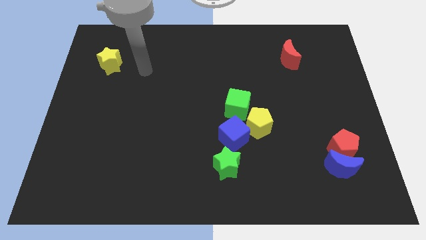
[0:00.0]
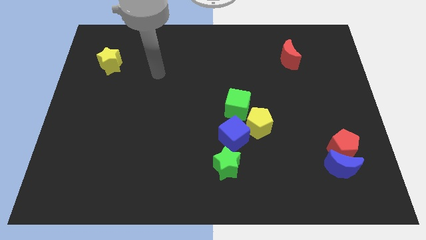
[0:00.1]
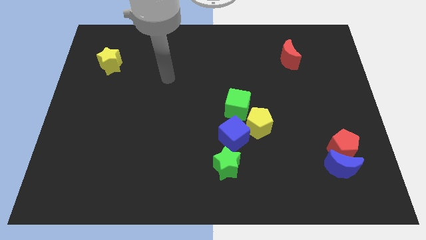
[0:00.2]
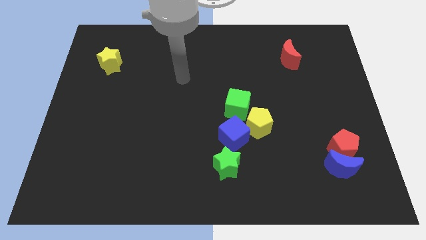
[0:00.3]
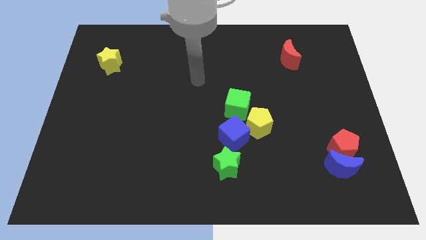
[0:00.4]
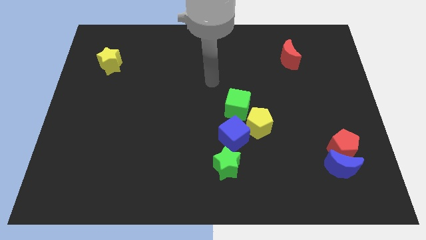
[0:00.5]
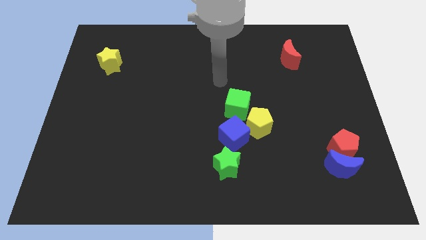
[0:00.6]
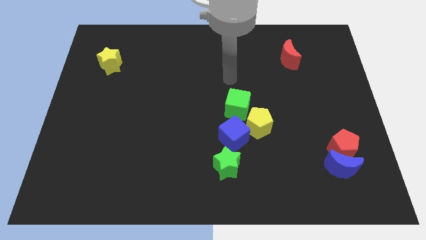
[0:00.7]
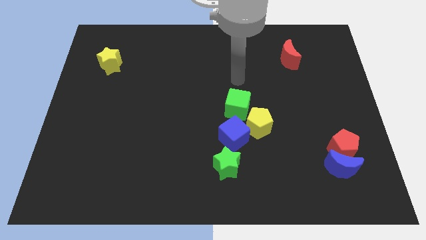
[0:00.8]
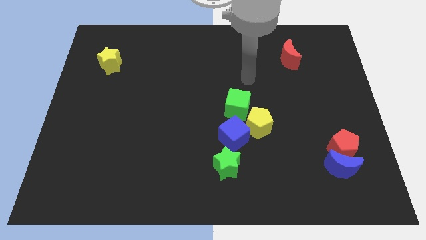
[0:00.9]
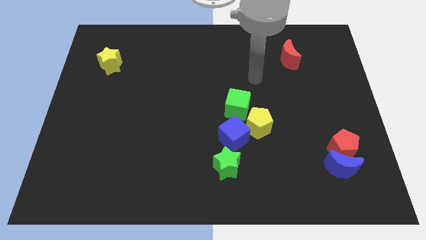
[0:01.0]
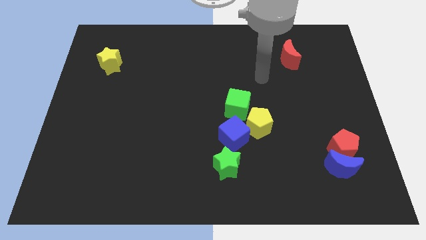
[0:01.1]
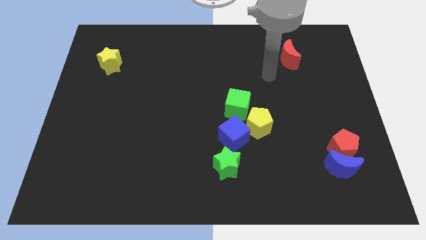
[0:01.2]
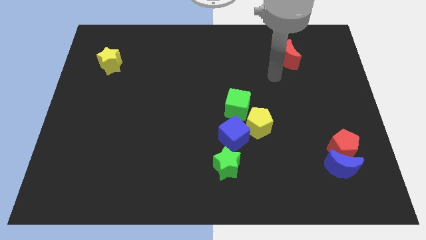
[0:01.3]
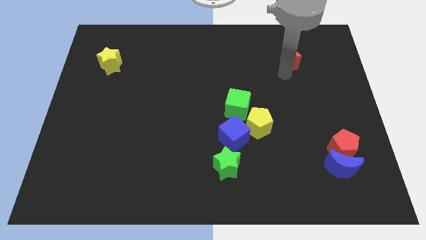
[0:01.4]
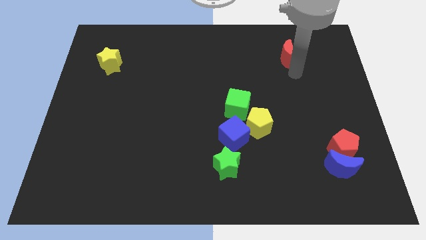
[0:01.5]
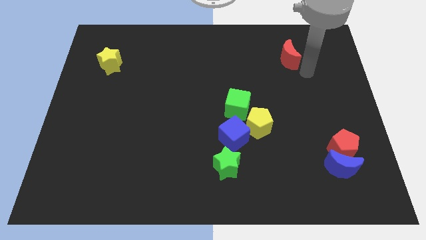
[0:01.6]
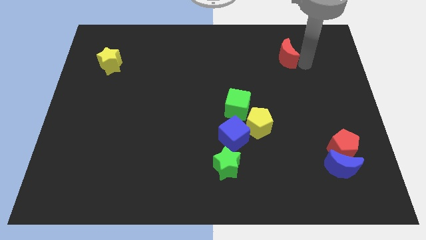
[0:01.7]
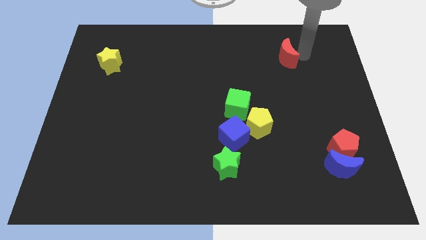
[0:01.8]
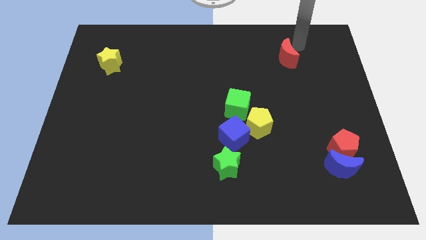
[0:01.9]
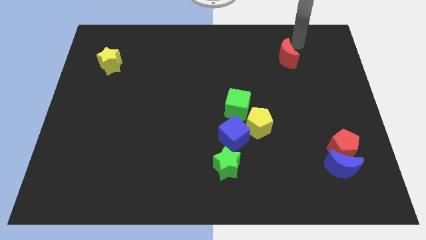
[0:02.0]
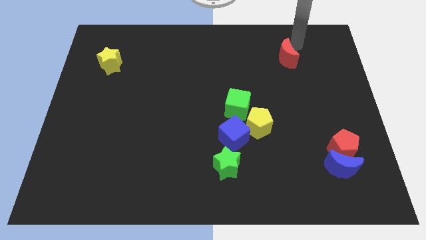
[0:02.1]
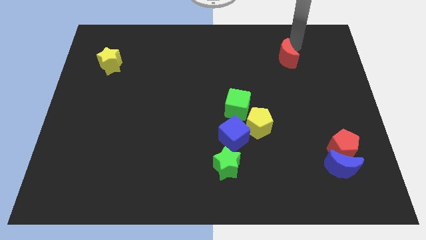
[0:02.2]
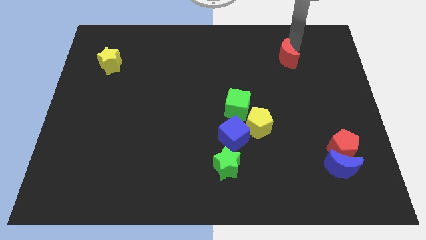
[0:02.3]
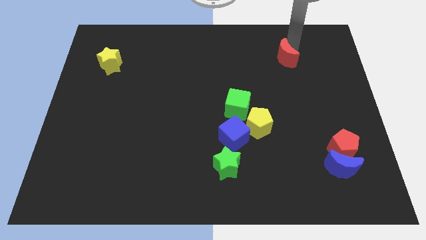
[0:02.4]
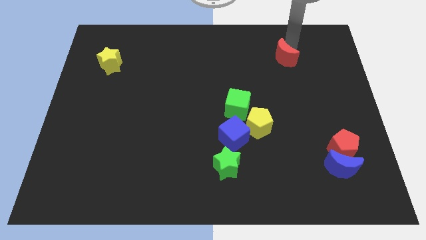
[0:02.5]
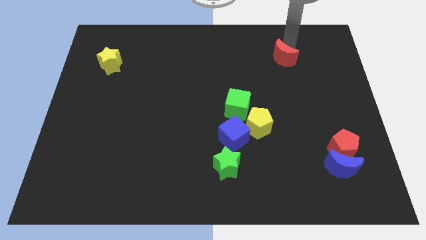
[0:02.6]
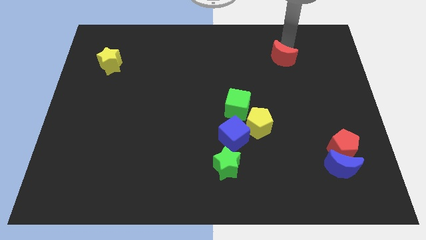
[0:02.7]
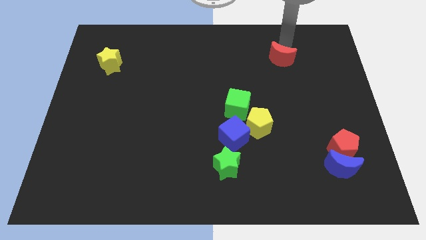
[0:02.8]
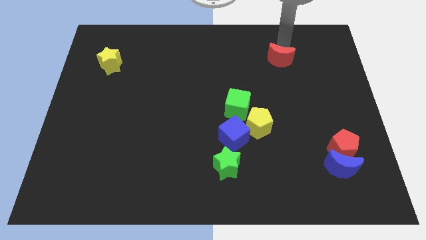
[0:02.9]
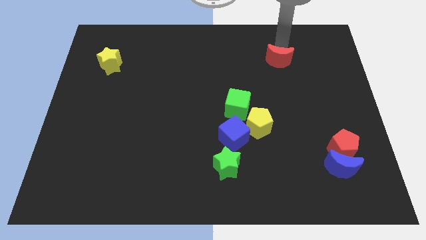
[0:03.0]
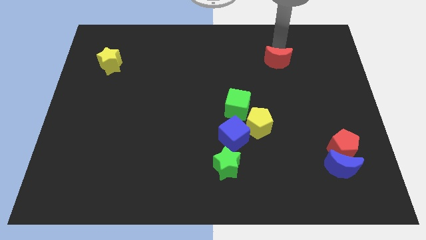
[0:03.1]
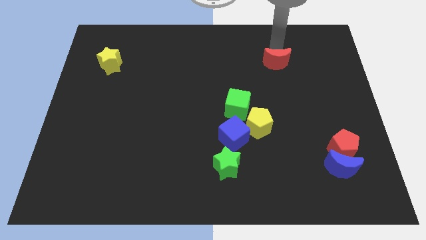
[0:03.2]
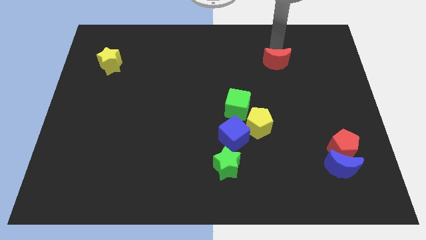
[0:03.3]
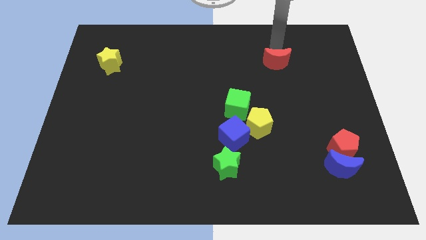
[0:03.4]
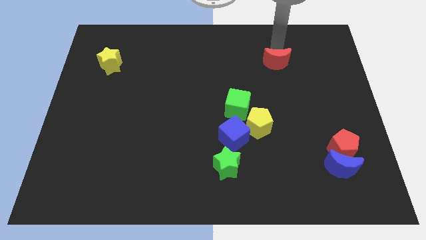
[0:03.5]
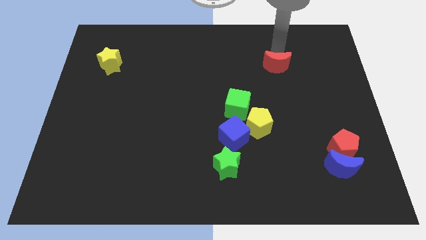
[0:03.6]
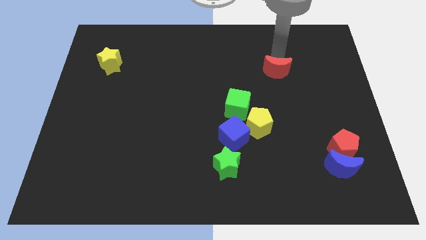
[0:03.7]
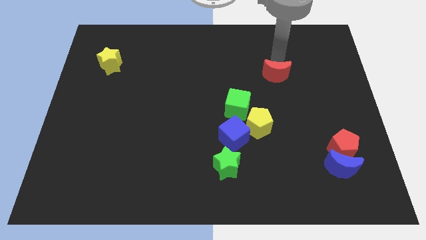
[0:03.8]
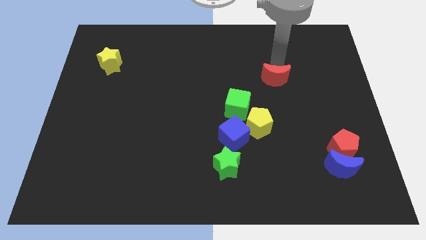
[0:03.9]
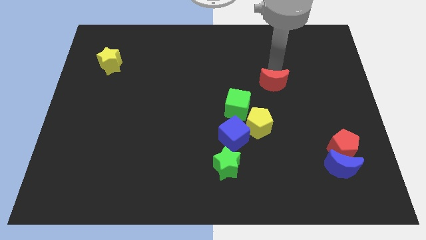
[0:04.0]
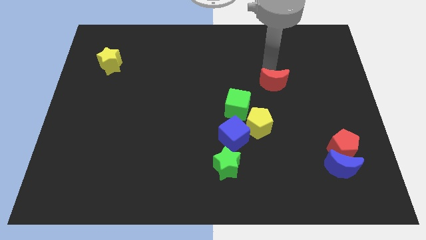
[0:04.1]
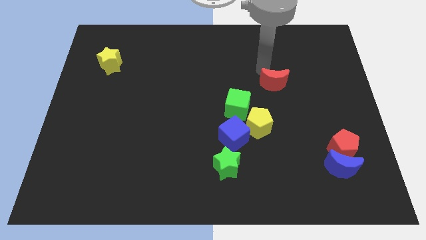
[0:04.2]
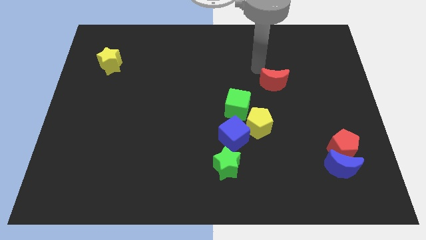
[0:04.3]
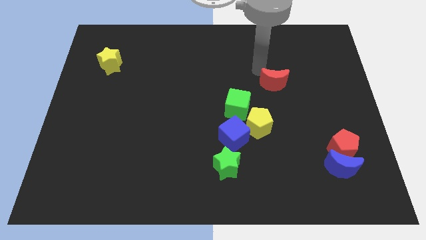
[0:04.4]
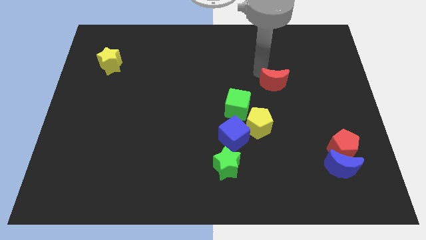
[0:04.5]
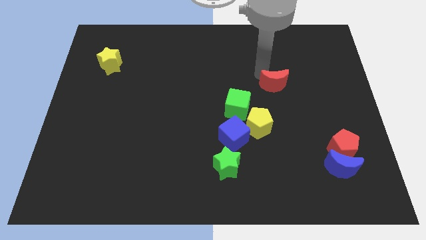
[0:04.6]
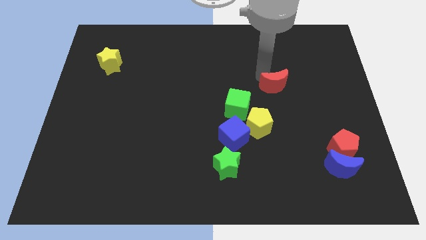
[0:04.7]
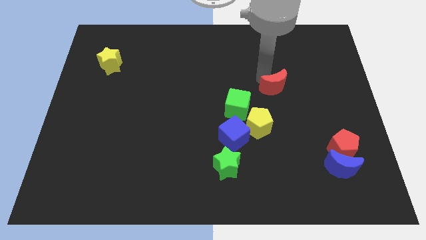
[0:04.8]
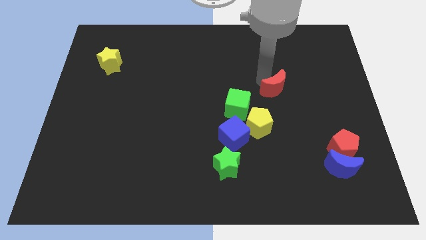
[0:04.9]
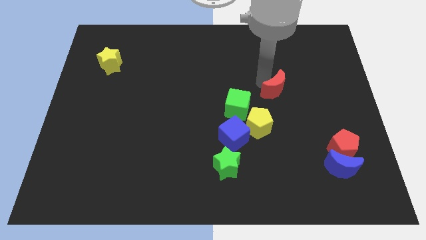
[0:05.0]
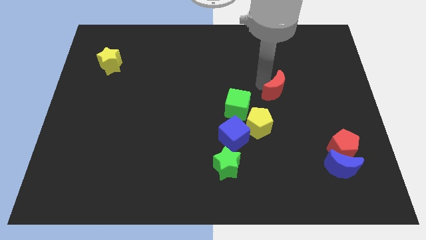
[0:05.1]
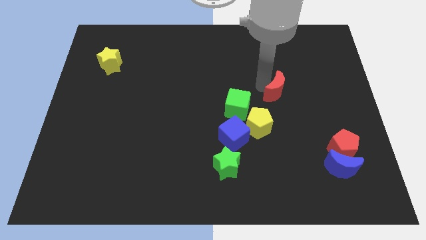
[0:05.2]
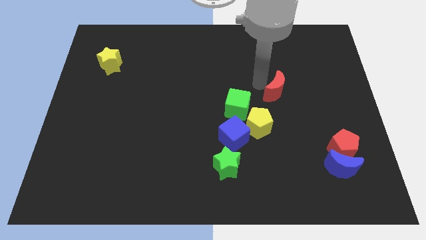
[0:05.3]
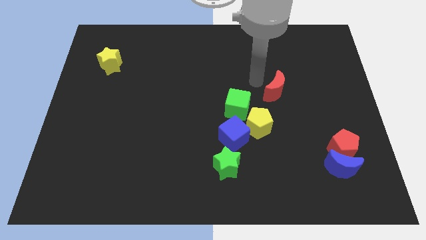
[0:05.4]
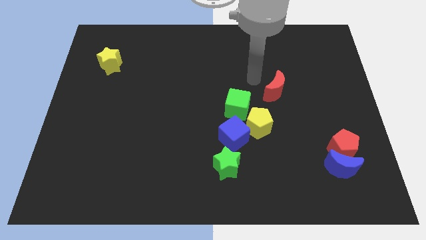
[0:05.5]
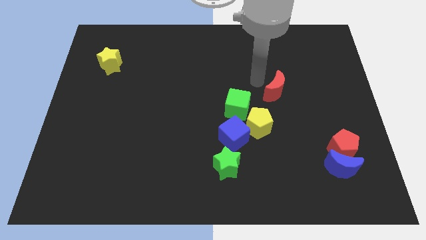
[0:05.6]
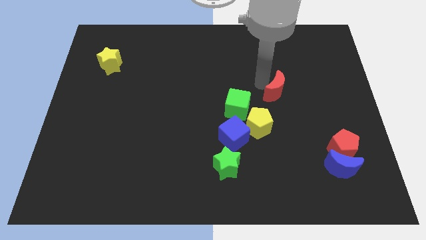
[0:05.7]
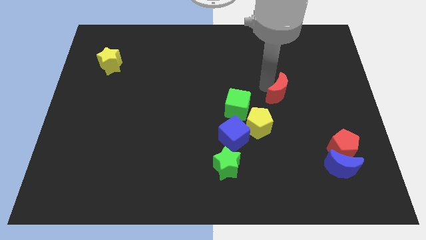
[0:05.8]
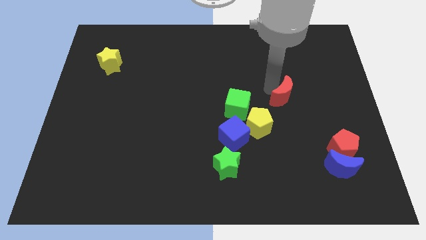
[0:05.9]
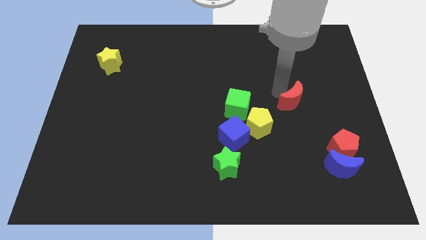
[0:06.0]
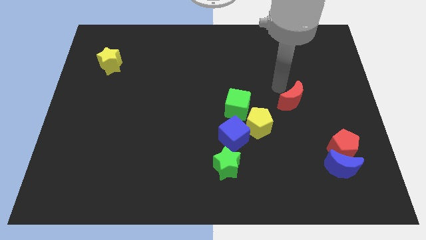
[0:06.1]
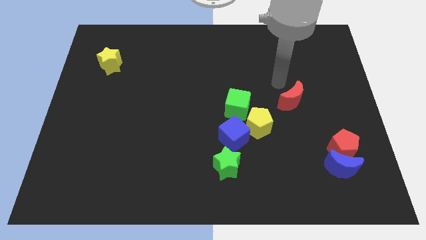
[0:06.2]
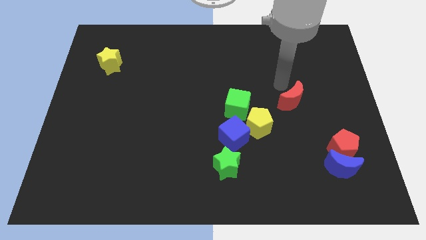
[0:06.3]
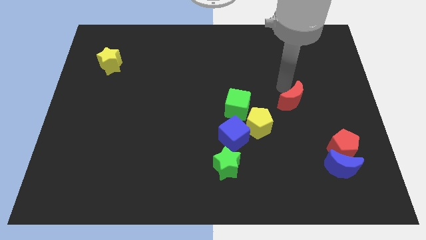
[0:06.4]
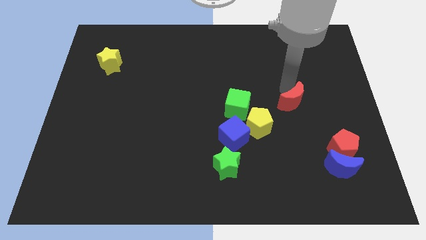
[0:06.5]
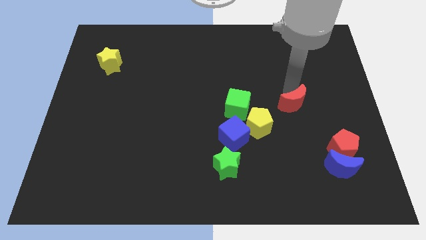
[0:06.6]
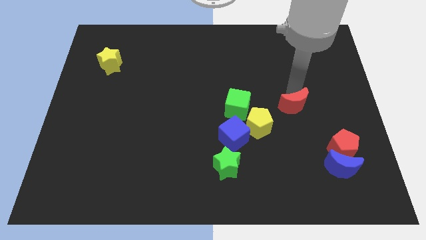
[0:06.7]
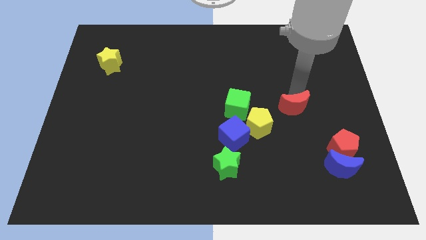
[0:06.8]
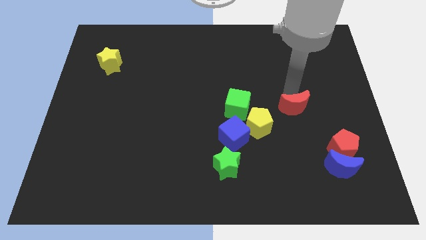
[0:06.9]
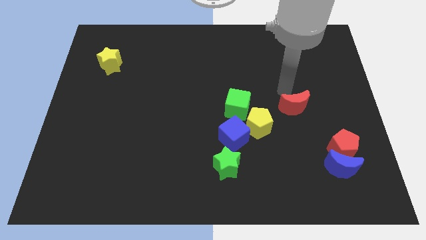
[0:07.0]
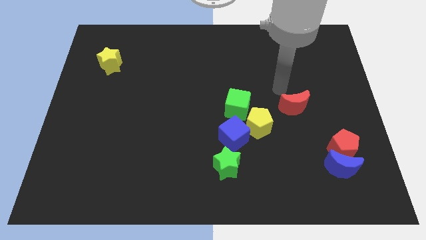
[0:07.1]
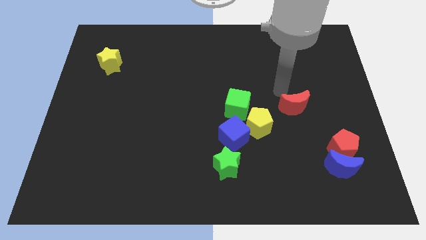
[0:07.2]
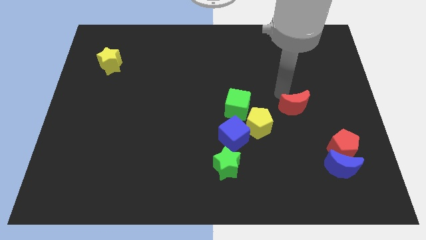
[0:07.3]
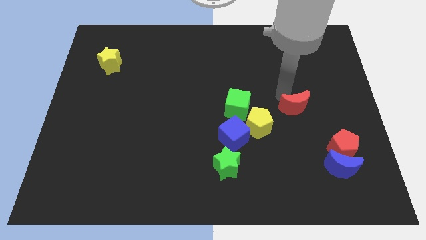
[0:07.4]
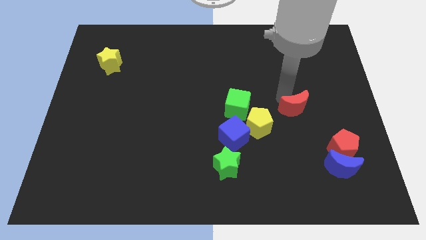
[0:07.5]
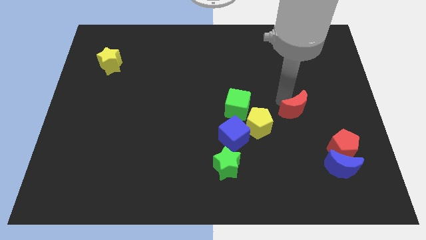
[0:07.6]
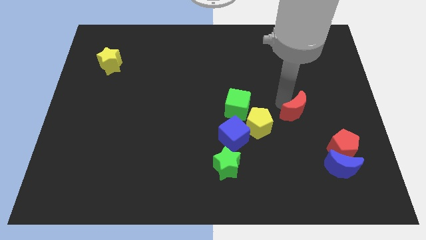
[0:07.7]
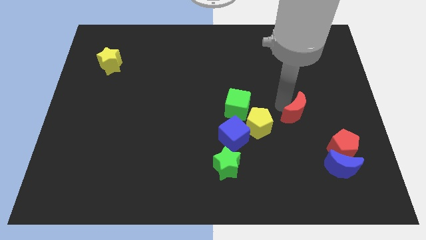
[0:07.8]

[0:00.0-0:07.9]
put the red moon to the top left side of the red pentagon
